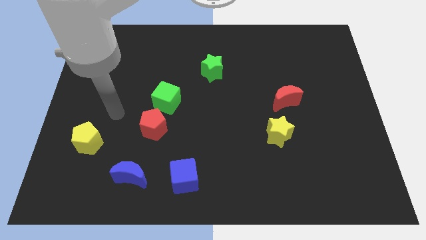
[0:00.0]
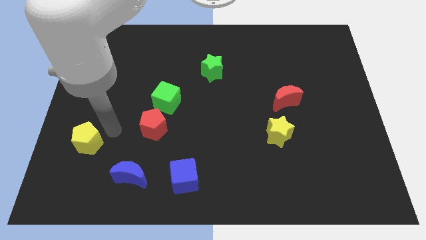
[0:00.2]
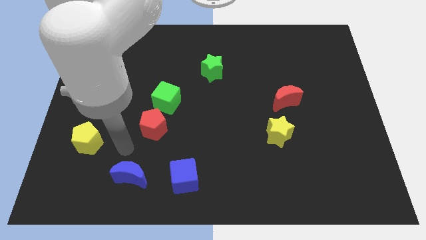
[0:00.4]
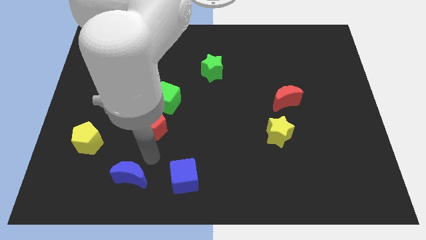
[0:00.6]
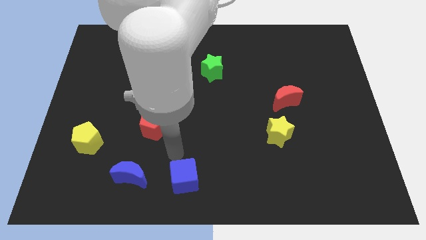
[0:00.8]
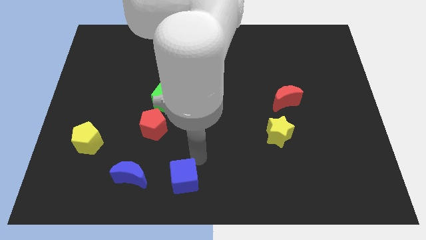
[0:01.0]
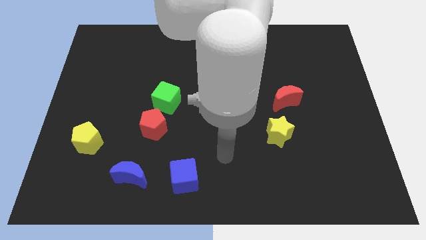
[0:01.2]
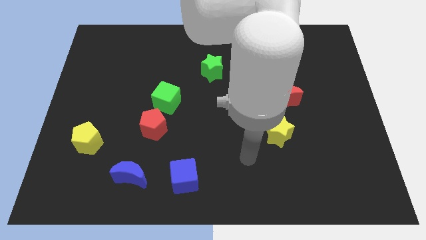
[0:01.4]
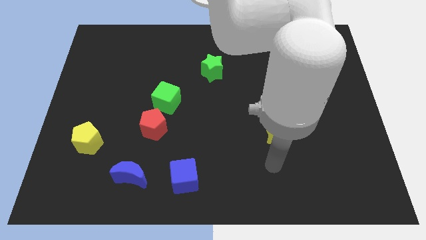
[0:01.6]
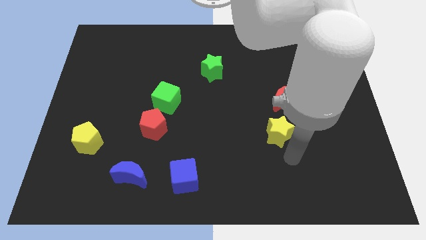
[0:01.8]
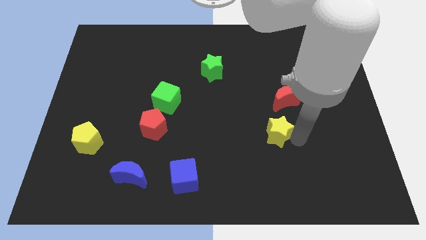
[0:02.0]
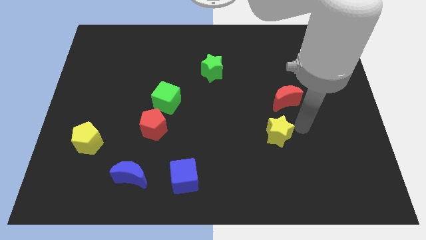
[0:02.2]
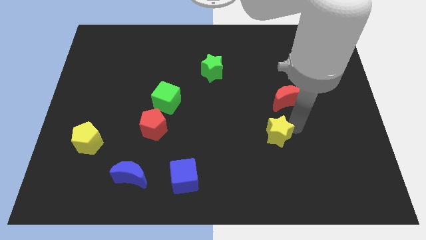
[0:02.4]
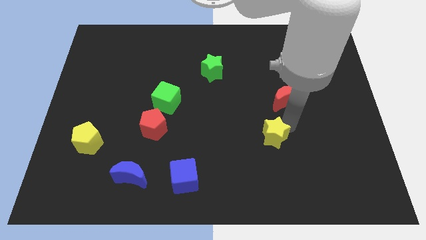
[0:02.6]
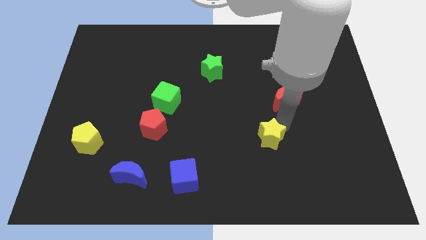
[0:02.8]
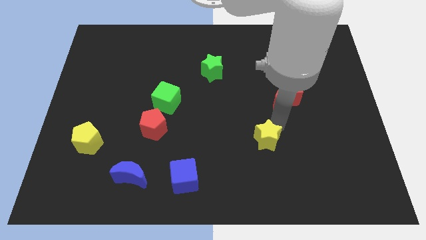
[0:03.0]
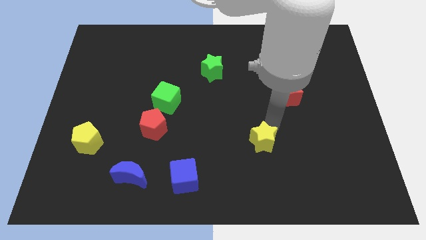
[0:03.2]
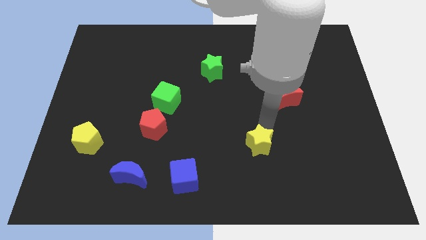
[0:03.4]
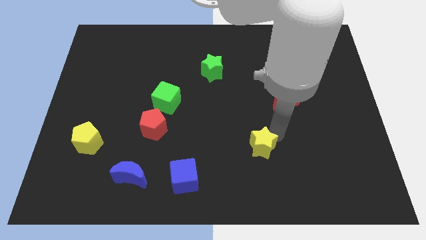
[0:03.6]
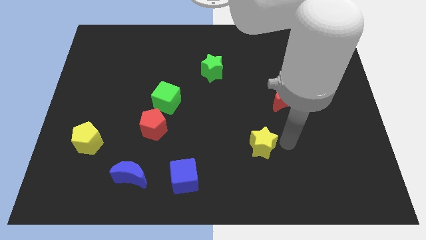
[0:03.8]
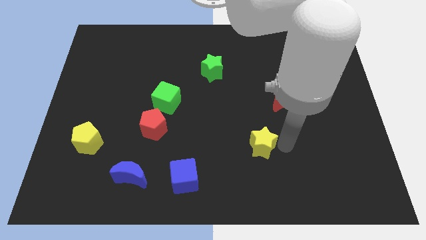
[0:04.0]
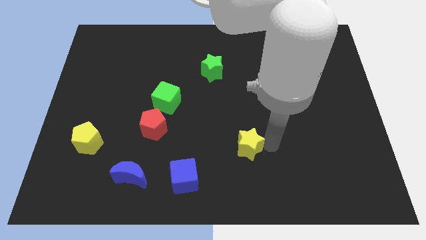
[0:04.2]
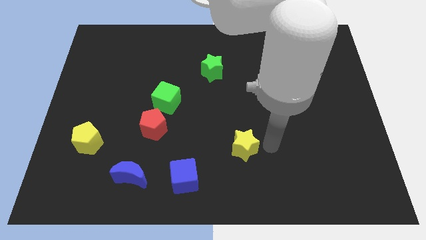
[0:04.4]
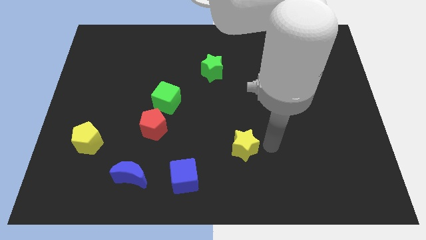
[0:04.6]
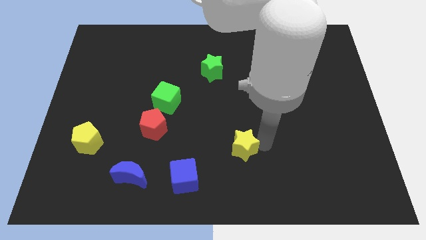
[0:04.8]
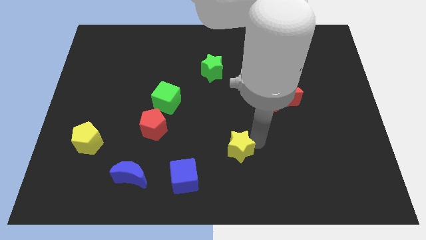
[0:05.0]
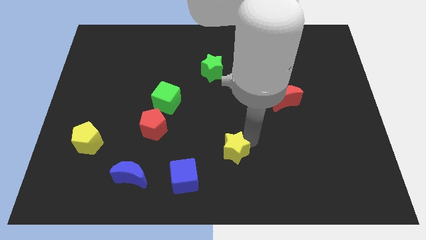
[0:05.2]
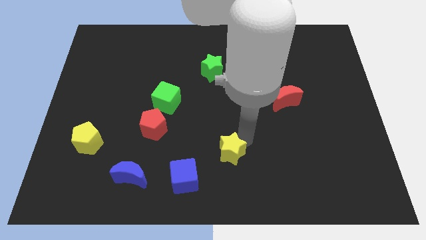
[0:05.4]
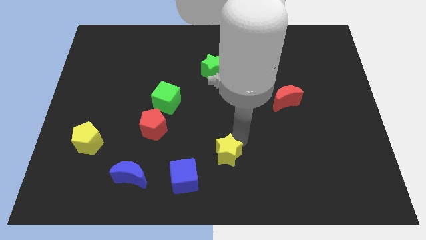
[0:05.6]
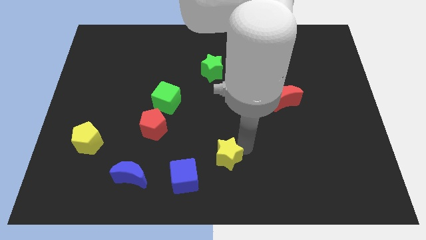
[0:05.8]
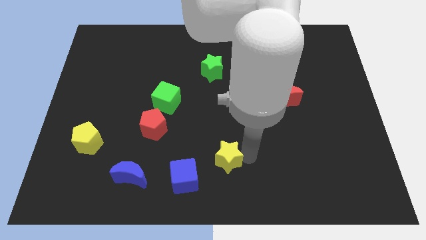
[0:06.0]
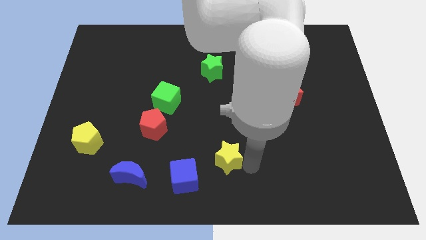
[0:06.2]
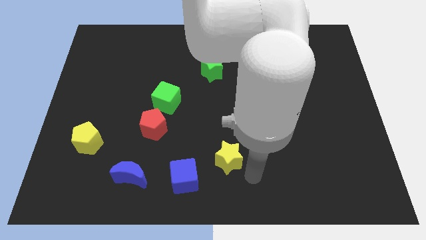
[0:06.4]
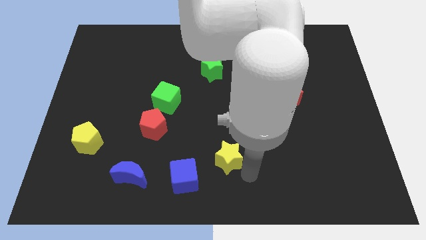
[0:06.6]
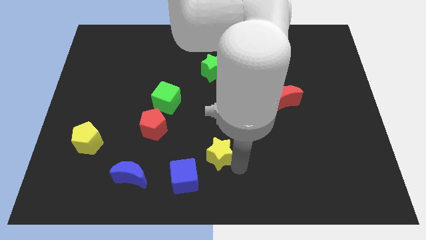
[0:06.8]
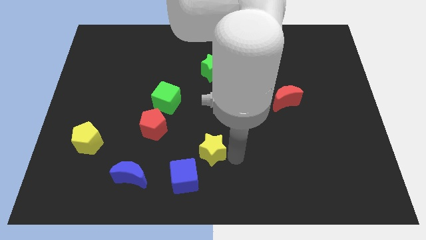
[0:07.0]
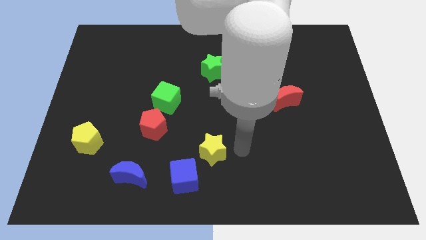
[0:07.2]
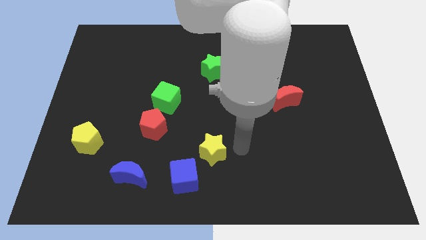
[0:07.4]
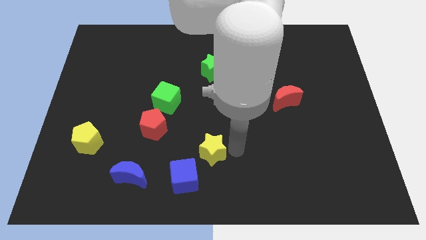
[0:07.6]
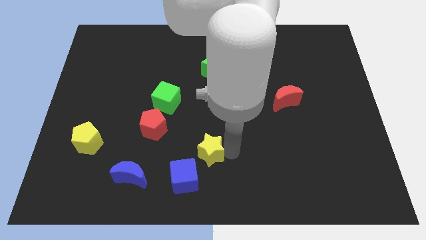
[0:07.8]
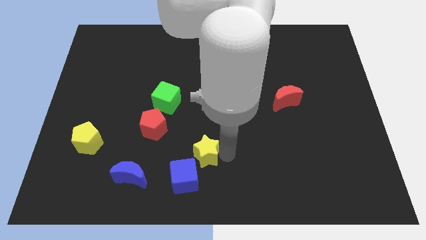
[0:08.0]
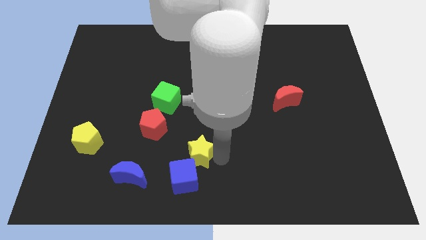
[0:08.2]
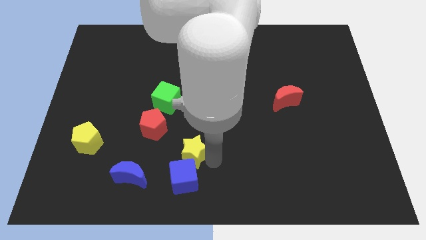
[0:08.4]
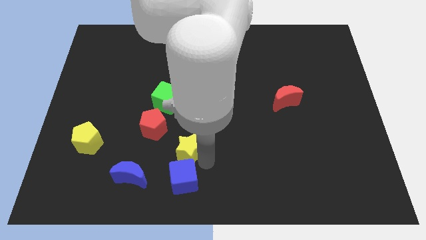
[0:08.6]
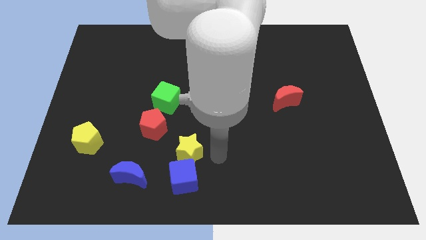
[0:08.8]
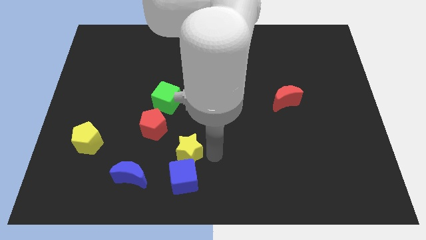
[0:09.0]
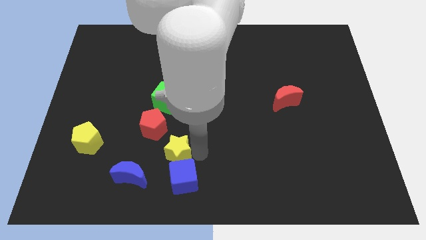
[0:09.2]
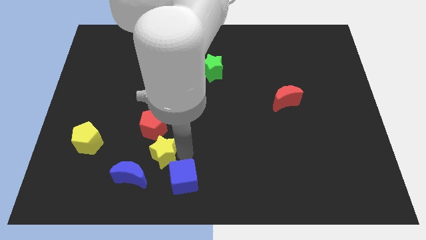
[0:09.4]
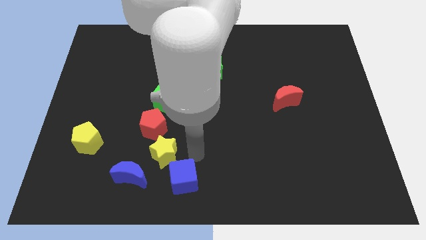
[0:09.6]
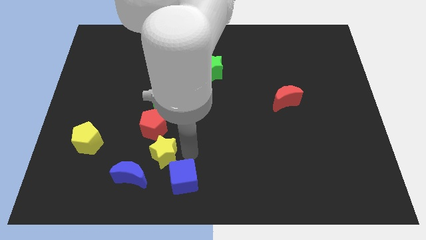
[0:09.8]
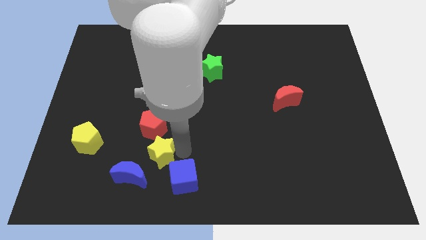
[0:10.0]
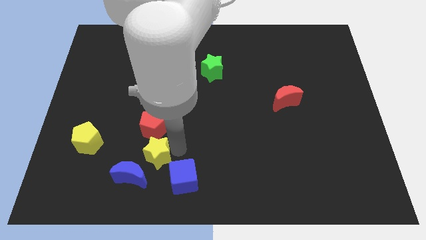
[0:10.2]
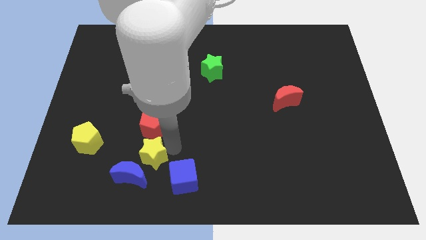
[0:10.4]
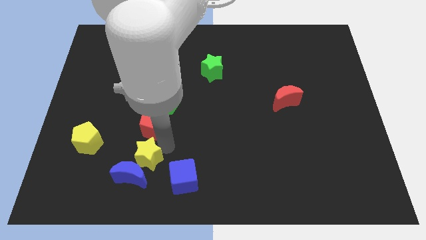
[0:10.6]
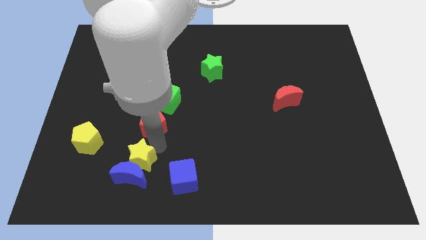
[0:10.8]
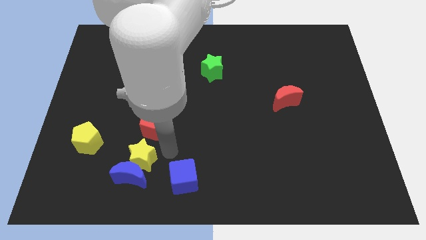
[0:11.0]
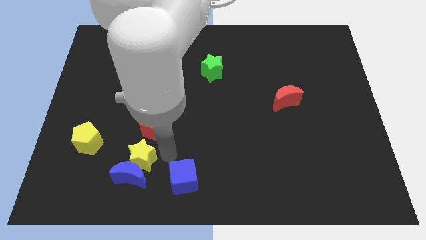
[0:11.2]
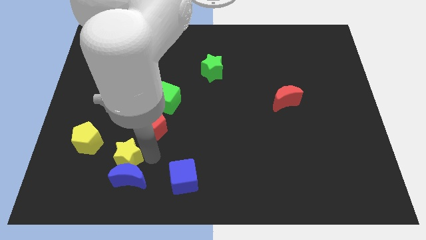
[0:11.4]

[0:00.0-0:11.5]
push the yellow star diagonally down and to the right of the yellow pentagon

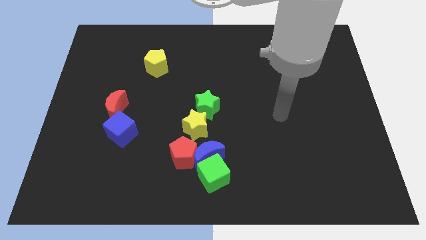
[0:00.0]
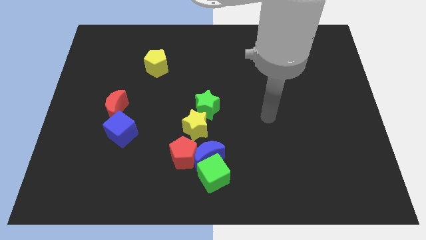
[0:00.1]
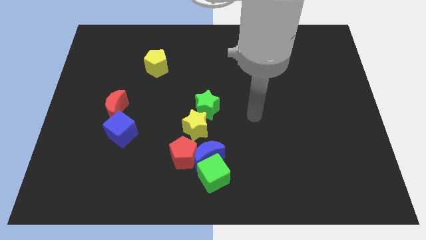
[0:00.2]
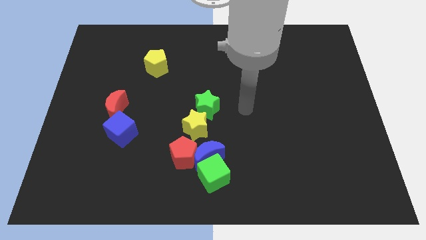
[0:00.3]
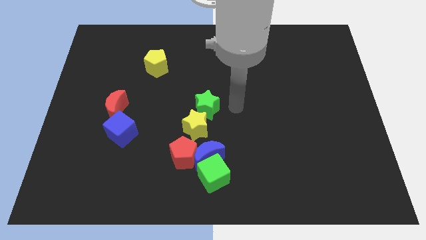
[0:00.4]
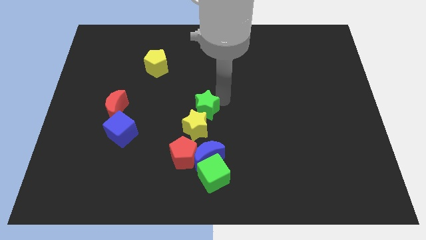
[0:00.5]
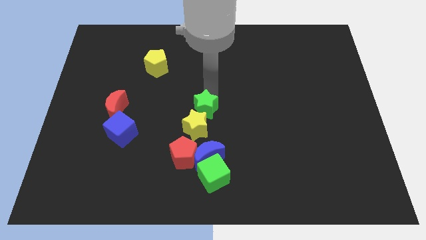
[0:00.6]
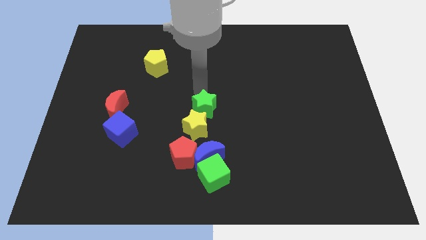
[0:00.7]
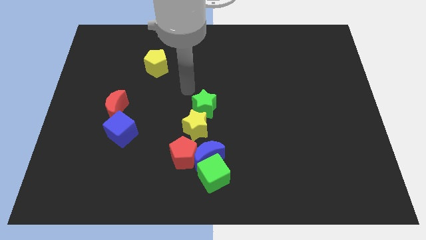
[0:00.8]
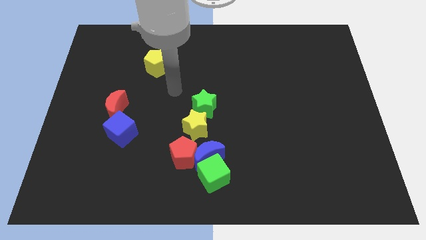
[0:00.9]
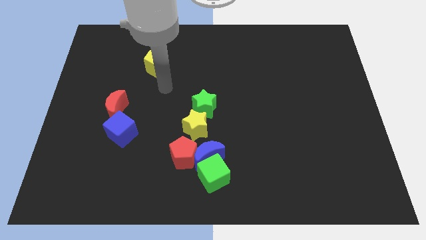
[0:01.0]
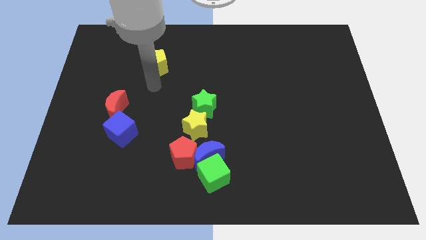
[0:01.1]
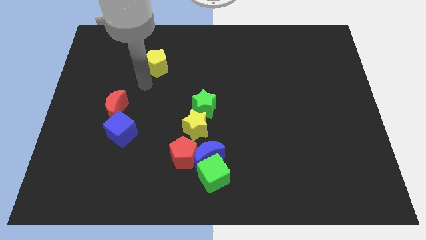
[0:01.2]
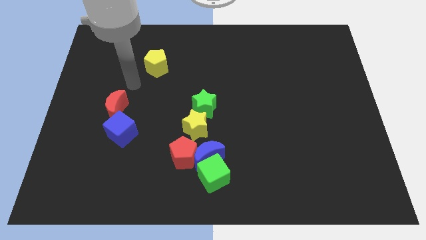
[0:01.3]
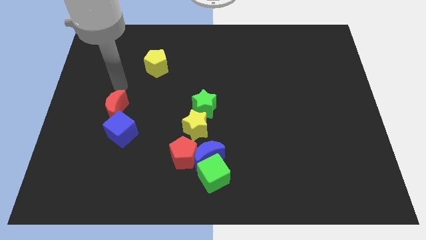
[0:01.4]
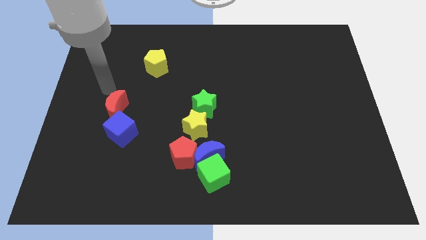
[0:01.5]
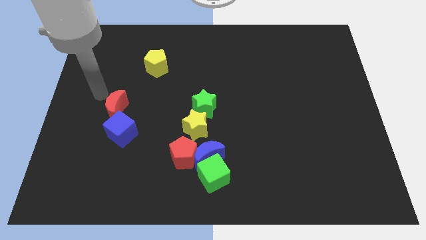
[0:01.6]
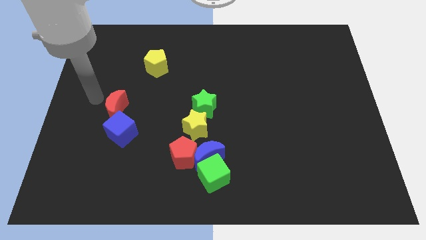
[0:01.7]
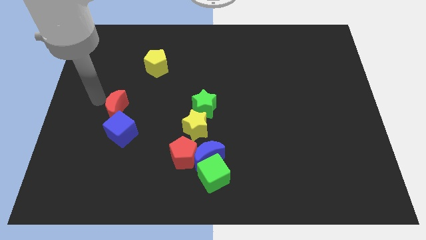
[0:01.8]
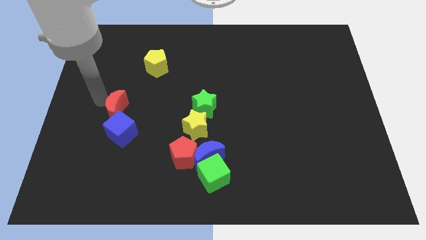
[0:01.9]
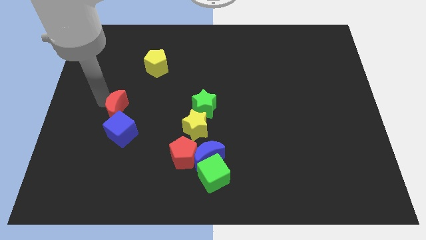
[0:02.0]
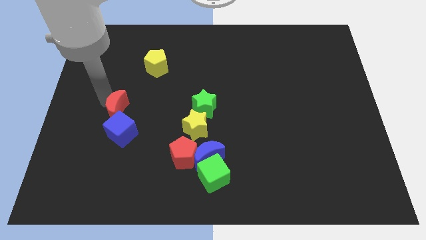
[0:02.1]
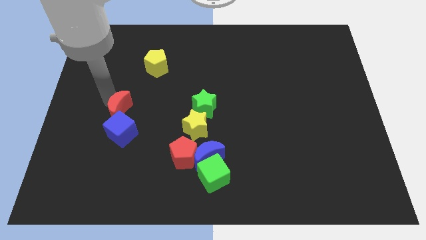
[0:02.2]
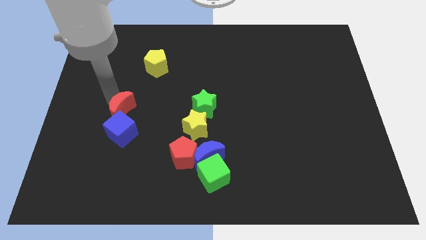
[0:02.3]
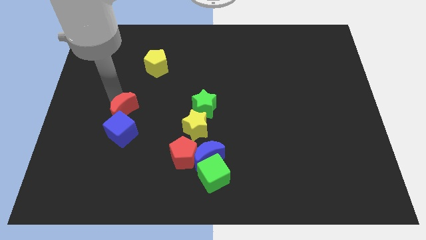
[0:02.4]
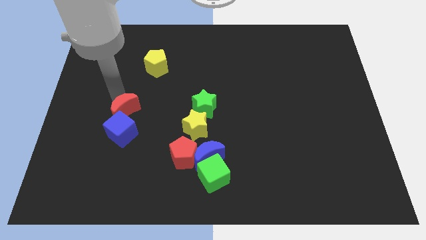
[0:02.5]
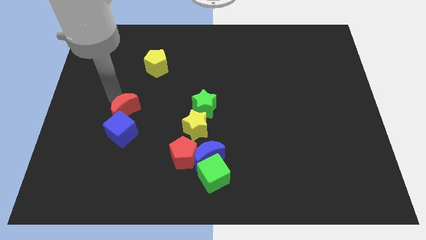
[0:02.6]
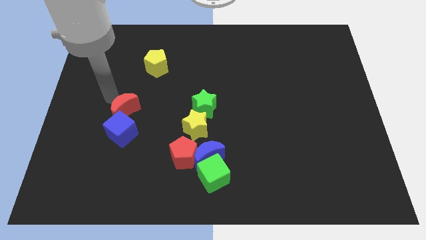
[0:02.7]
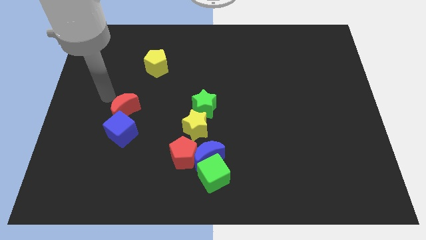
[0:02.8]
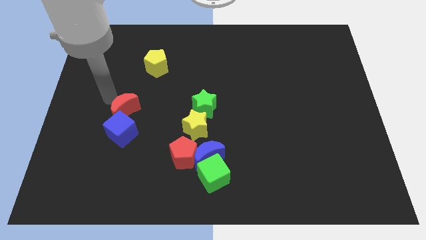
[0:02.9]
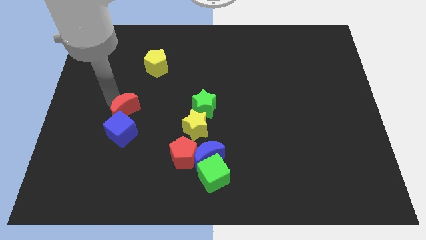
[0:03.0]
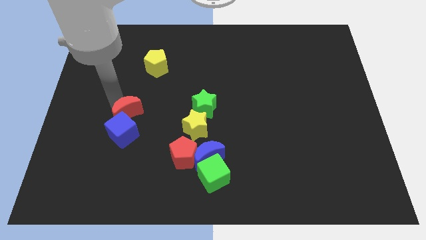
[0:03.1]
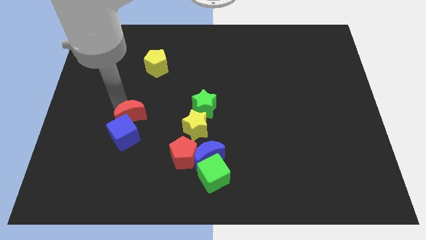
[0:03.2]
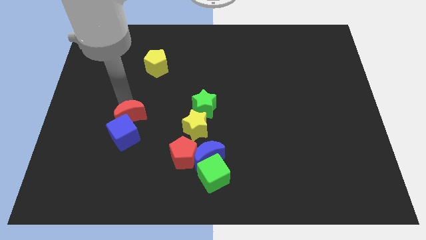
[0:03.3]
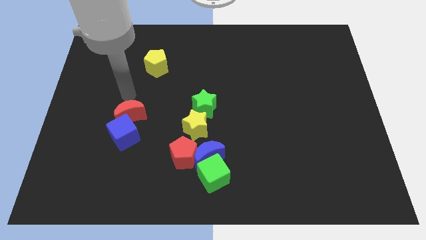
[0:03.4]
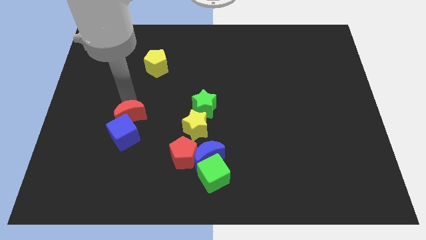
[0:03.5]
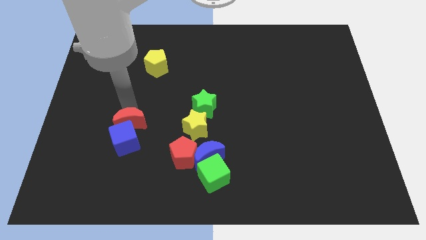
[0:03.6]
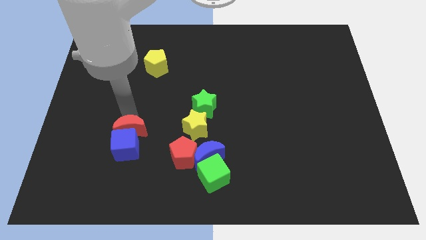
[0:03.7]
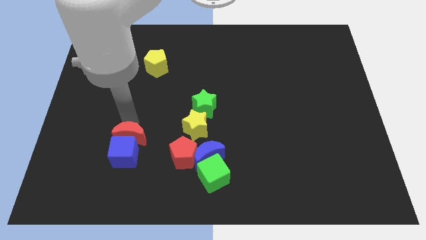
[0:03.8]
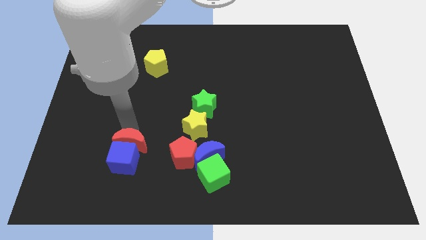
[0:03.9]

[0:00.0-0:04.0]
put the red moon left of the red pentagon
